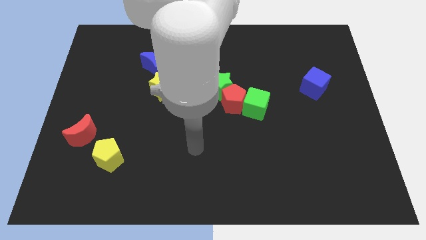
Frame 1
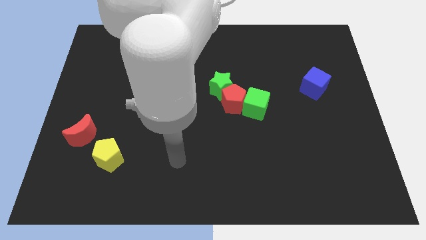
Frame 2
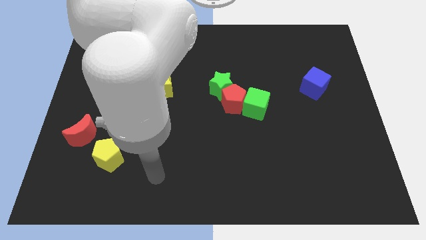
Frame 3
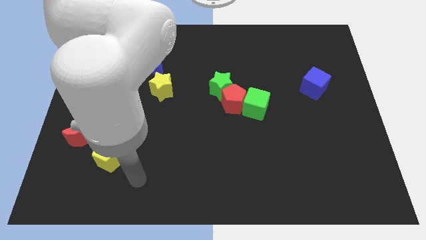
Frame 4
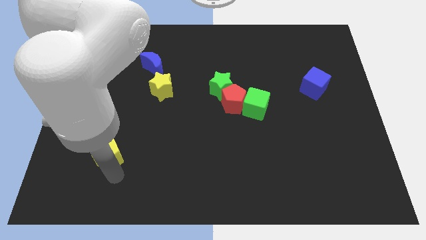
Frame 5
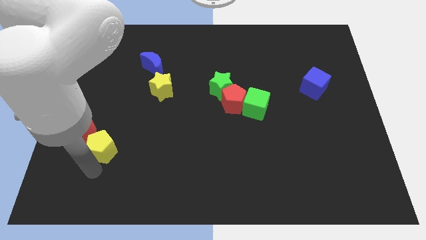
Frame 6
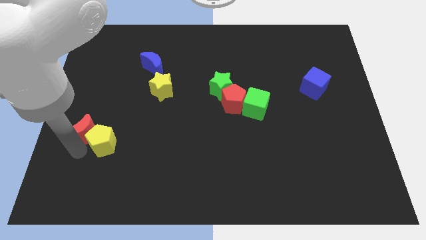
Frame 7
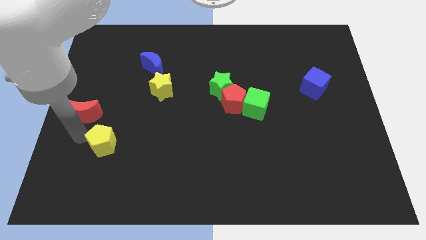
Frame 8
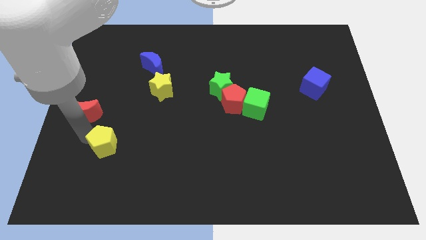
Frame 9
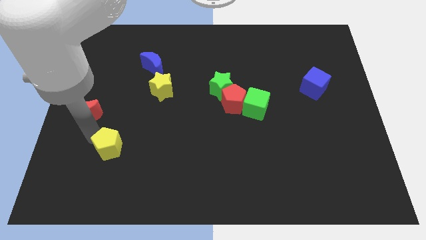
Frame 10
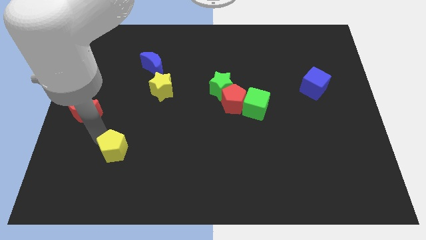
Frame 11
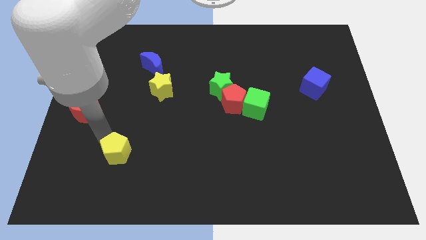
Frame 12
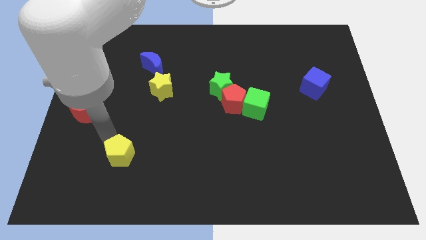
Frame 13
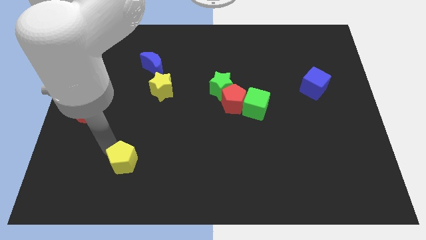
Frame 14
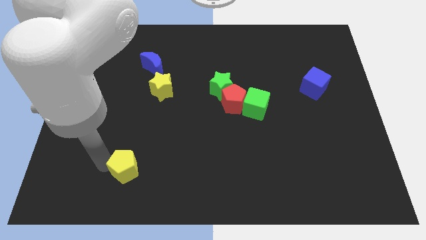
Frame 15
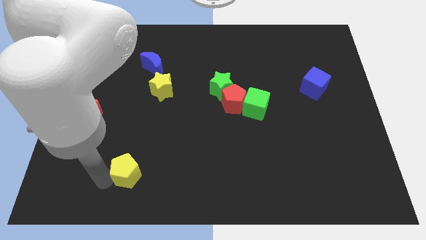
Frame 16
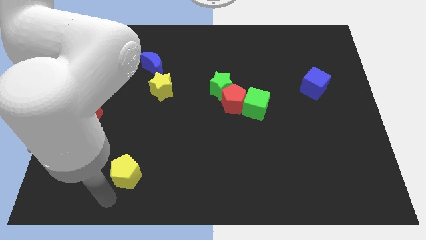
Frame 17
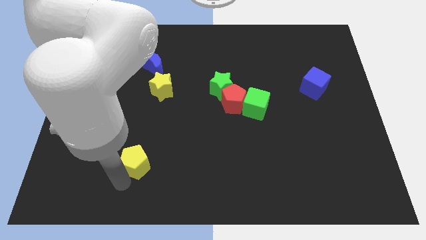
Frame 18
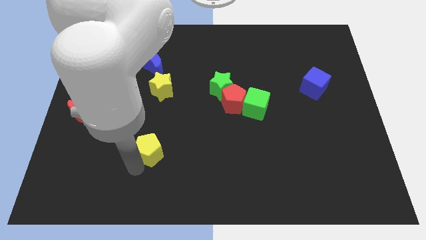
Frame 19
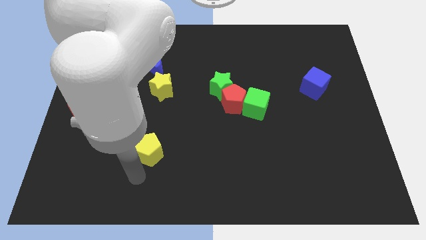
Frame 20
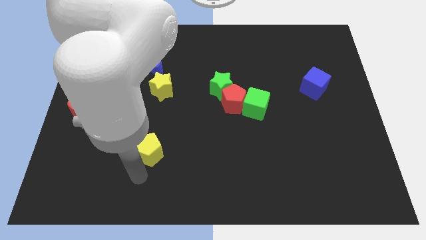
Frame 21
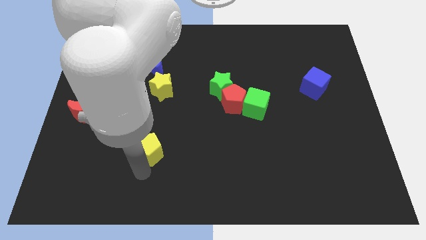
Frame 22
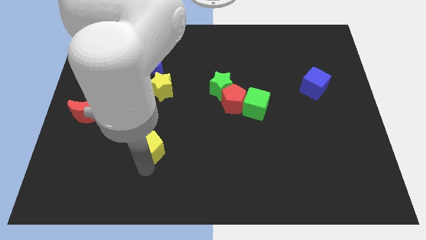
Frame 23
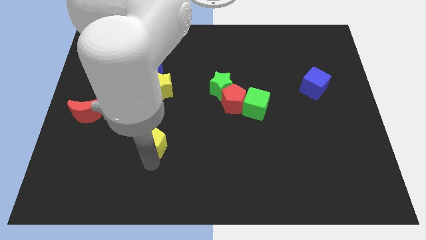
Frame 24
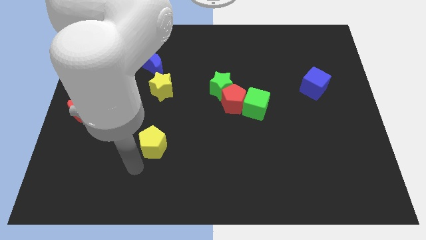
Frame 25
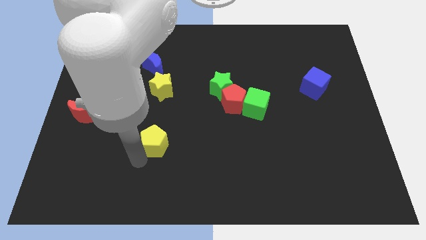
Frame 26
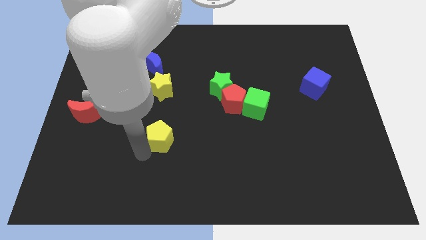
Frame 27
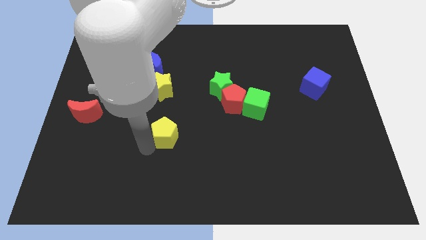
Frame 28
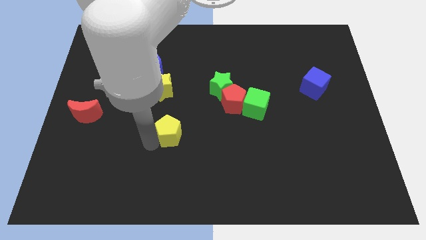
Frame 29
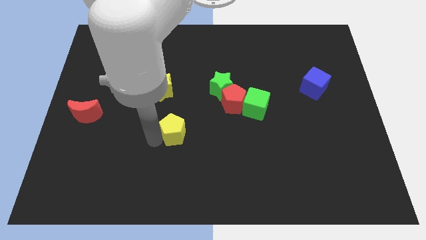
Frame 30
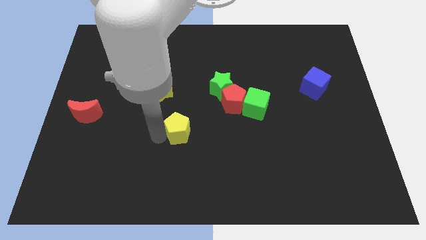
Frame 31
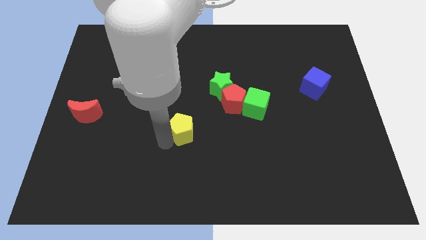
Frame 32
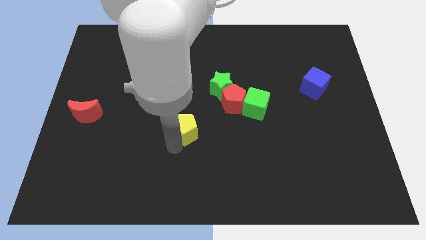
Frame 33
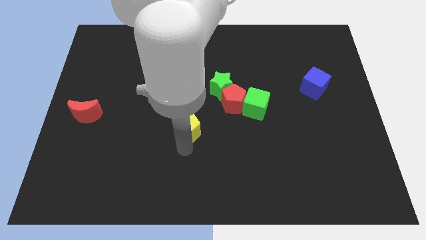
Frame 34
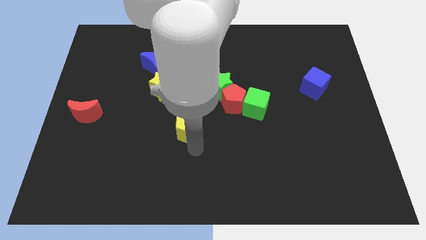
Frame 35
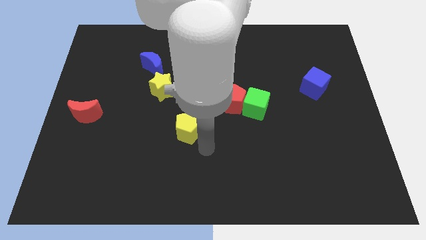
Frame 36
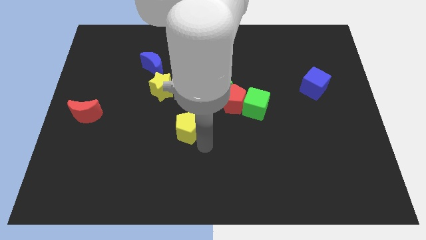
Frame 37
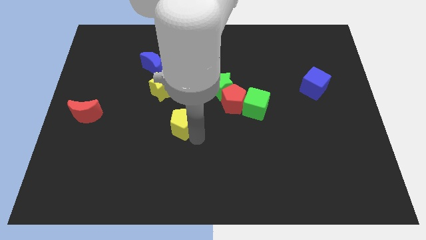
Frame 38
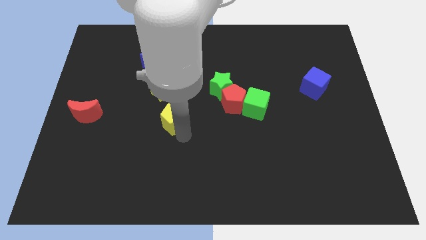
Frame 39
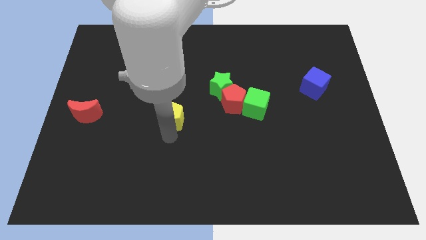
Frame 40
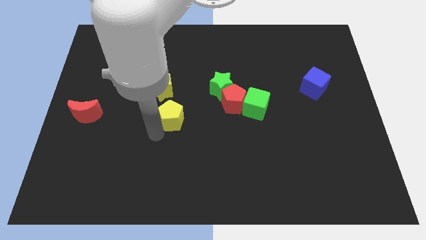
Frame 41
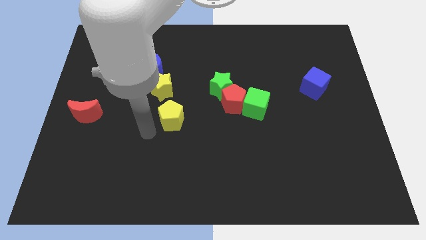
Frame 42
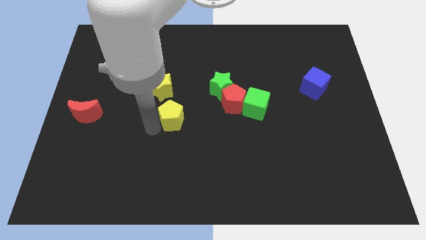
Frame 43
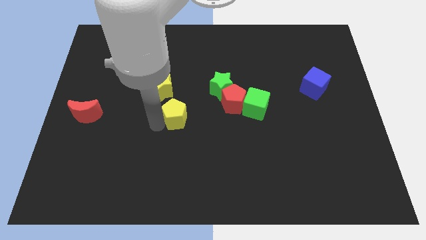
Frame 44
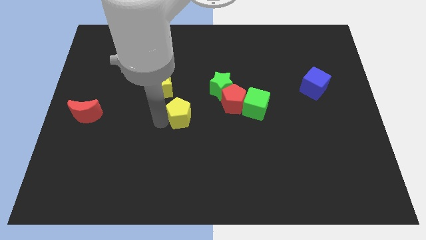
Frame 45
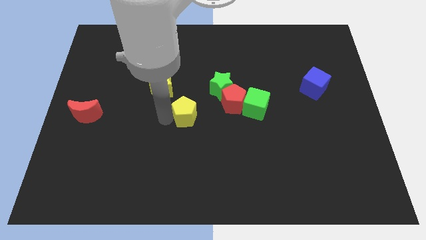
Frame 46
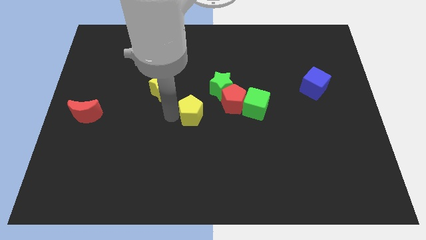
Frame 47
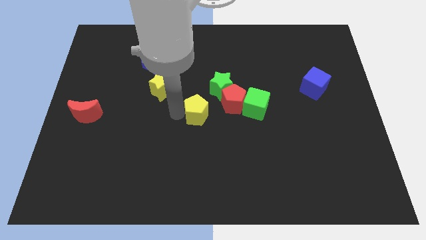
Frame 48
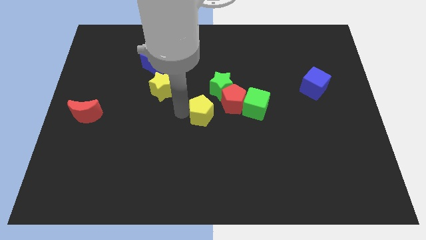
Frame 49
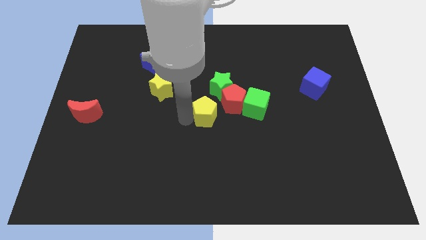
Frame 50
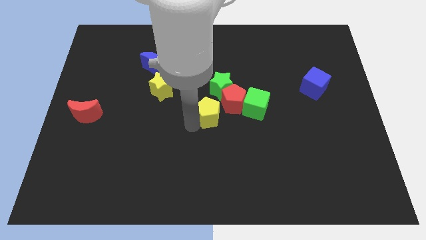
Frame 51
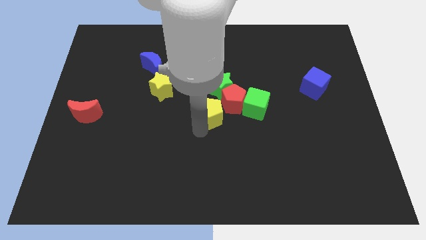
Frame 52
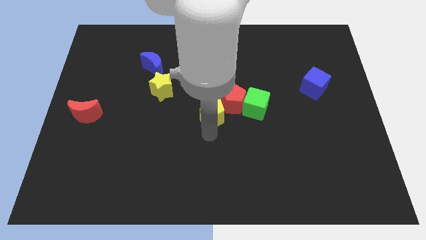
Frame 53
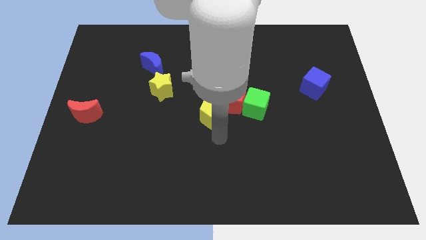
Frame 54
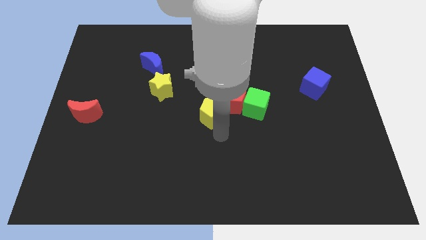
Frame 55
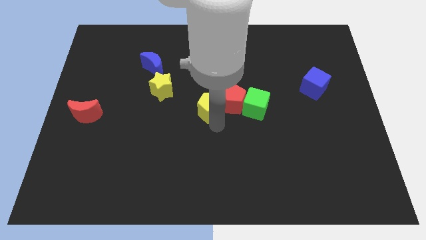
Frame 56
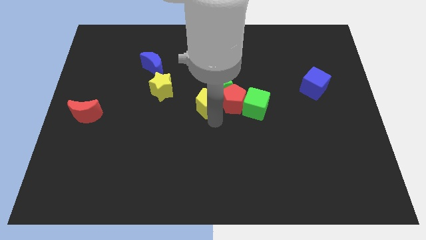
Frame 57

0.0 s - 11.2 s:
put the yellow pentagon close to the green star

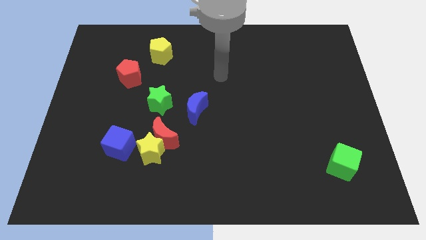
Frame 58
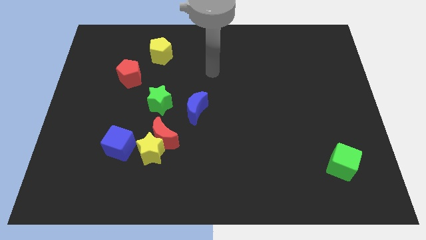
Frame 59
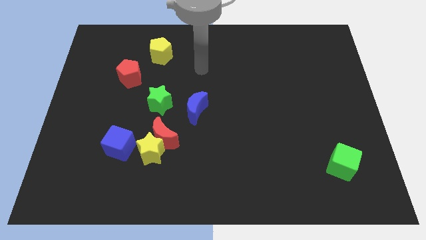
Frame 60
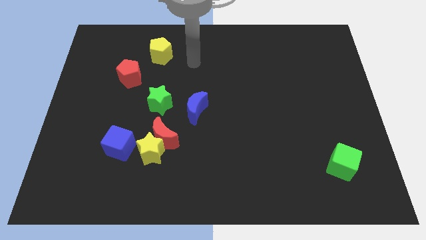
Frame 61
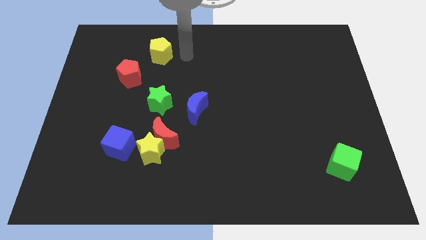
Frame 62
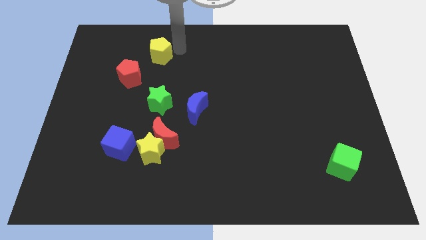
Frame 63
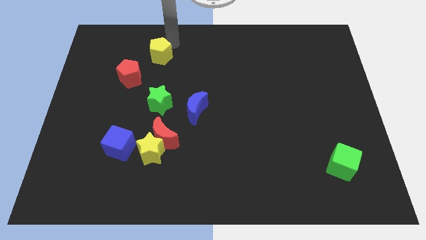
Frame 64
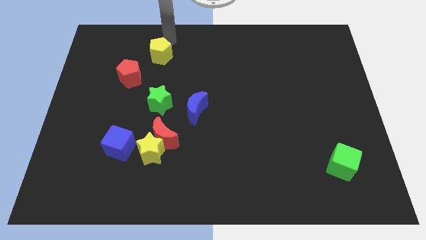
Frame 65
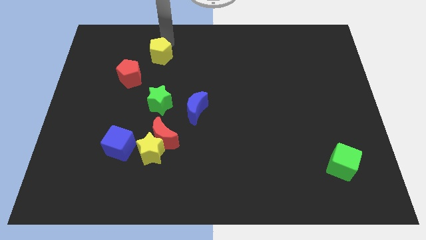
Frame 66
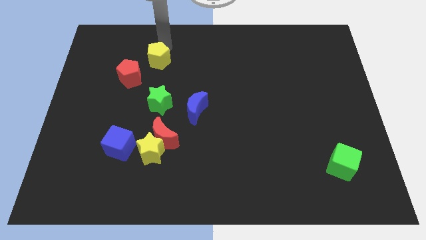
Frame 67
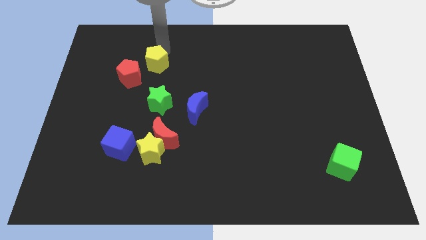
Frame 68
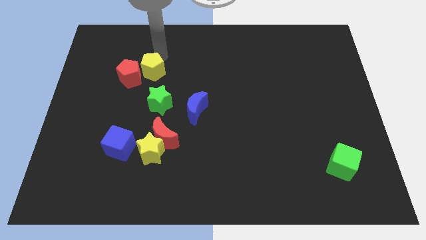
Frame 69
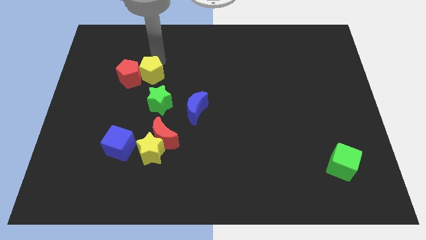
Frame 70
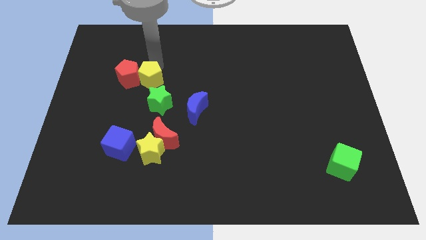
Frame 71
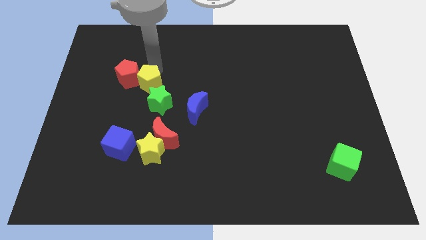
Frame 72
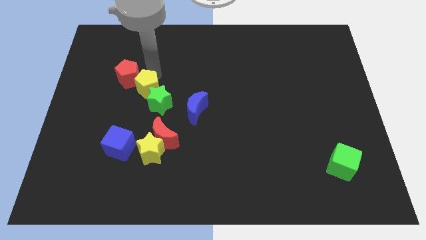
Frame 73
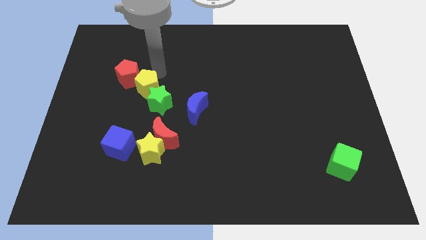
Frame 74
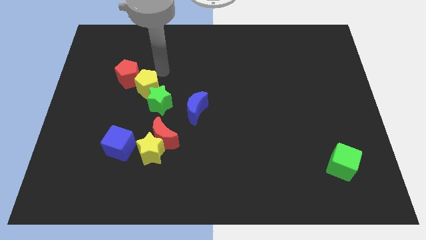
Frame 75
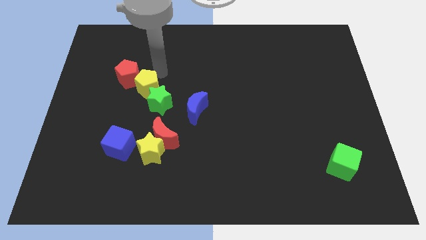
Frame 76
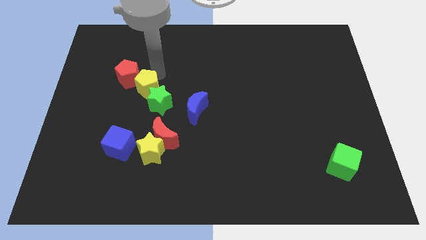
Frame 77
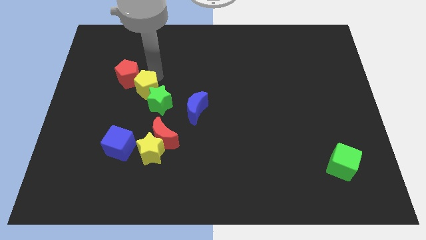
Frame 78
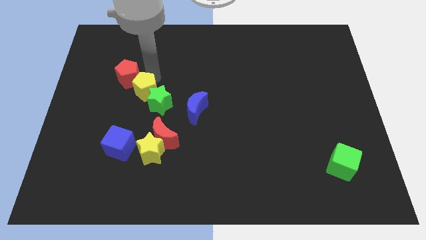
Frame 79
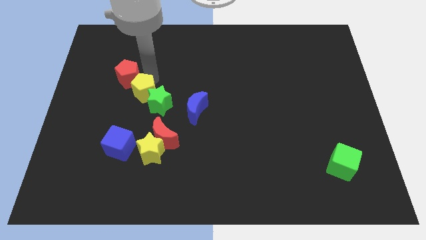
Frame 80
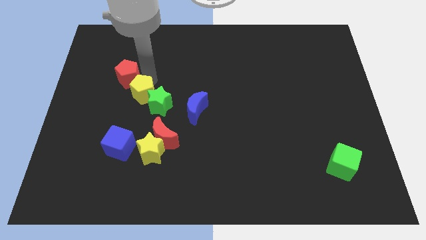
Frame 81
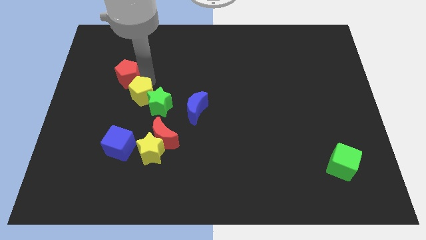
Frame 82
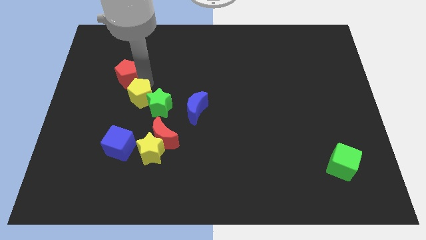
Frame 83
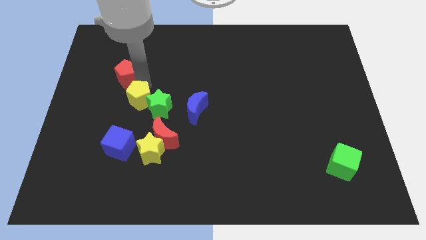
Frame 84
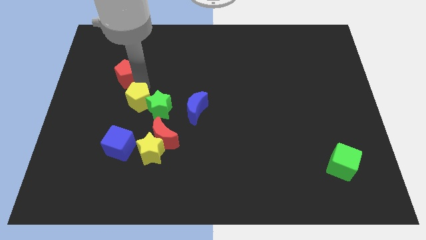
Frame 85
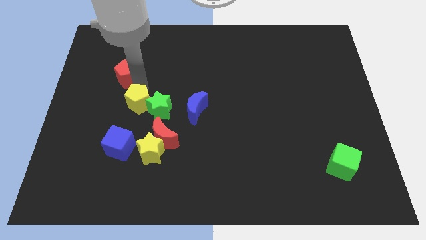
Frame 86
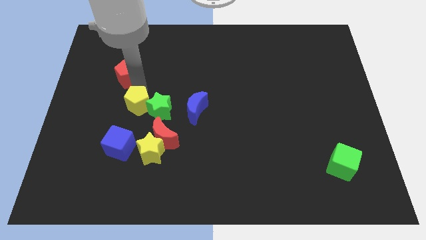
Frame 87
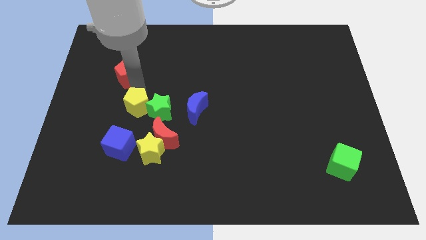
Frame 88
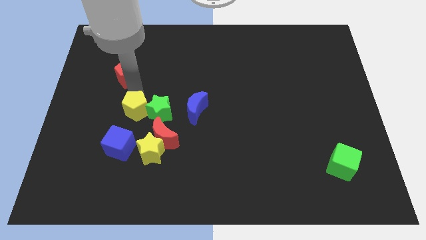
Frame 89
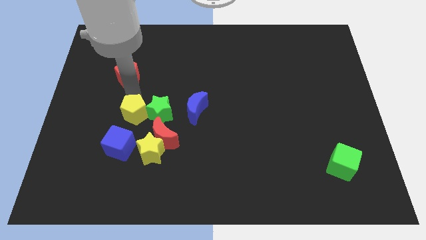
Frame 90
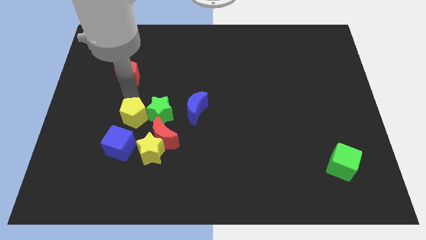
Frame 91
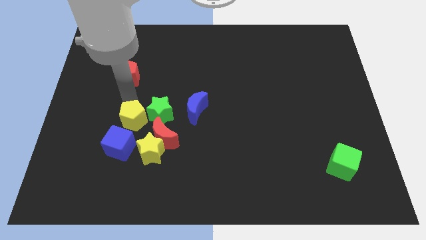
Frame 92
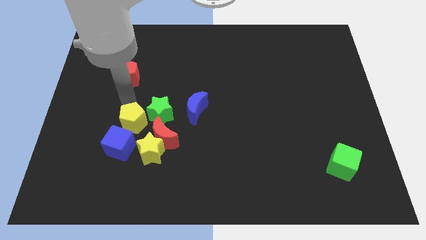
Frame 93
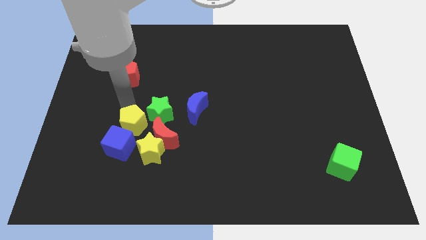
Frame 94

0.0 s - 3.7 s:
slide the yellow pentagon next to the blue cube
